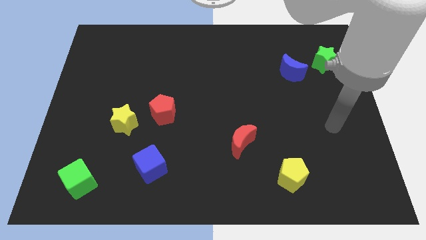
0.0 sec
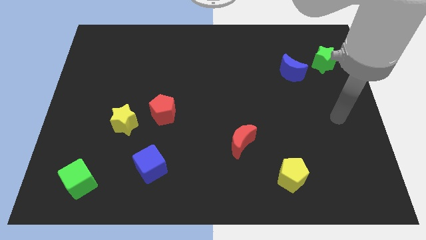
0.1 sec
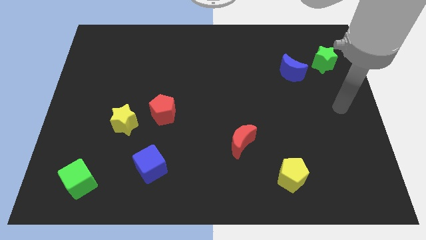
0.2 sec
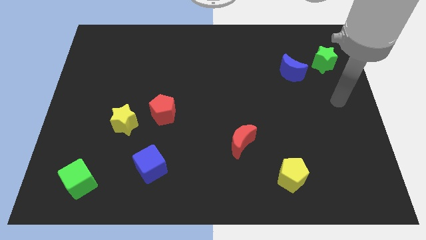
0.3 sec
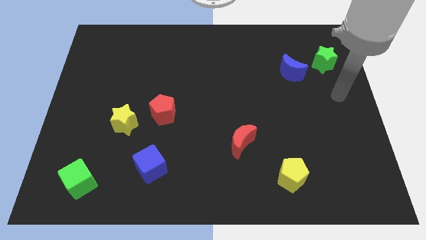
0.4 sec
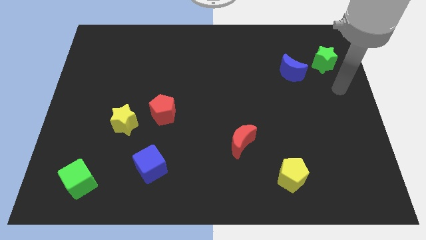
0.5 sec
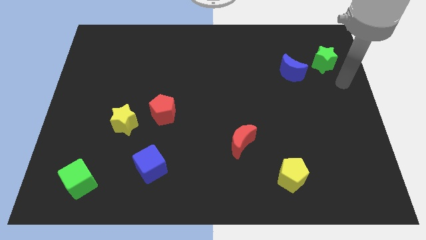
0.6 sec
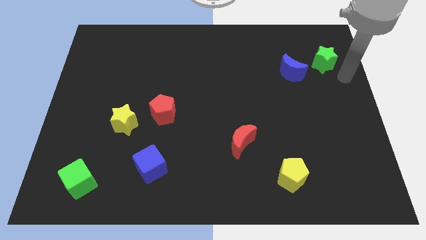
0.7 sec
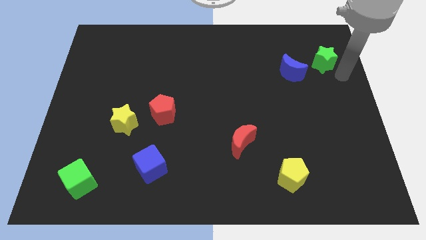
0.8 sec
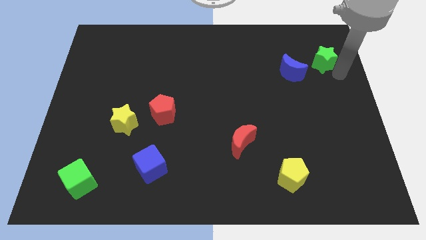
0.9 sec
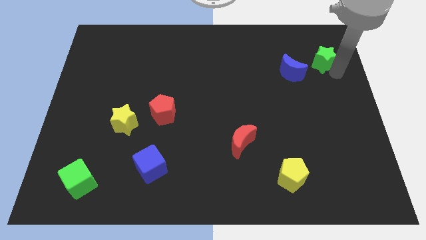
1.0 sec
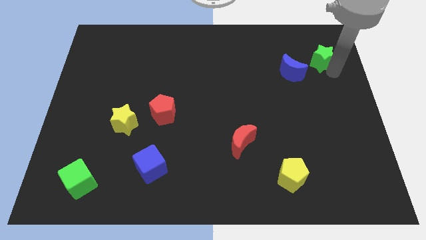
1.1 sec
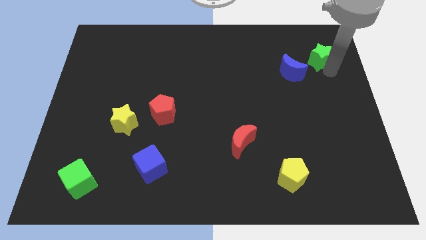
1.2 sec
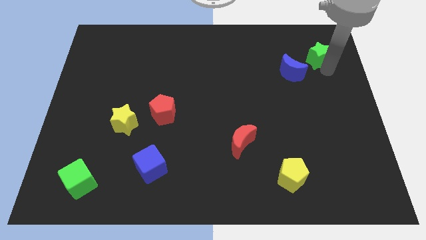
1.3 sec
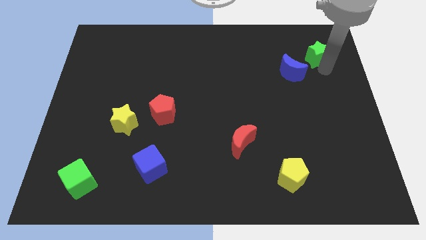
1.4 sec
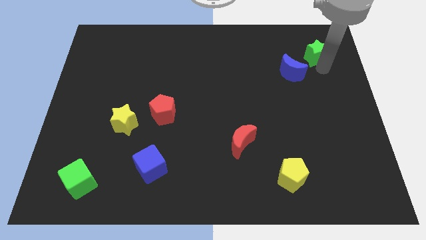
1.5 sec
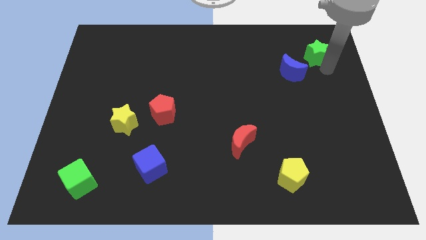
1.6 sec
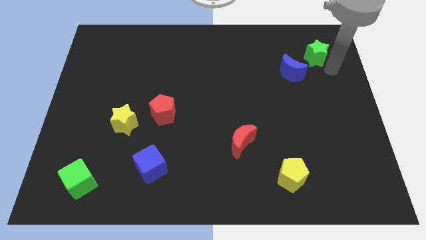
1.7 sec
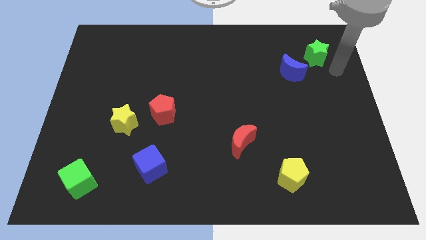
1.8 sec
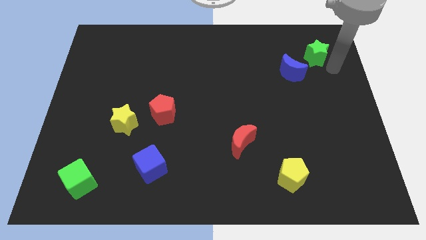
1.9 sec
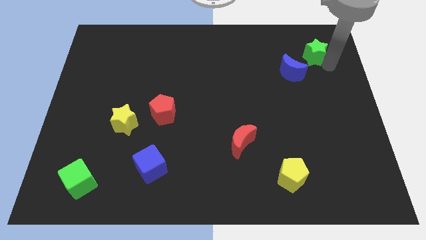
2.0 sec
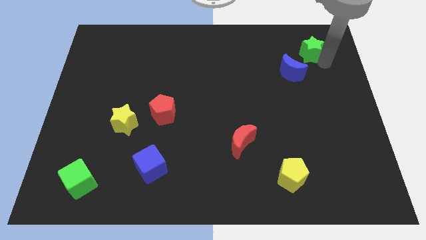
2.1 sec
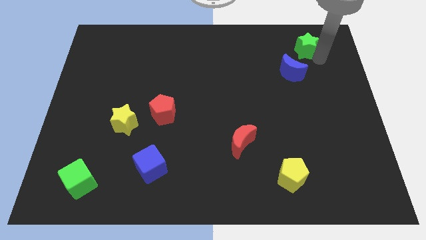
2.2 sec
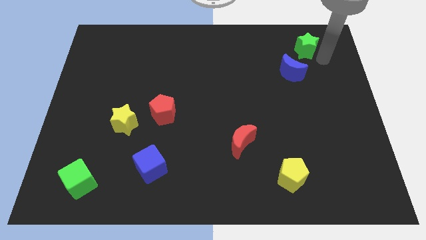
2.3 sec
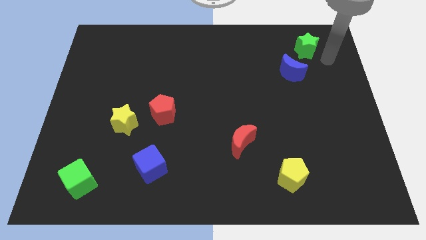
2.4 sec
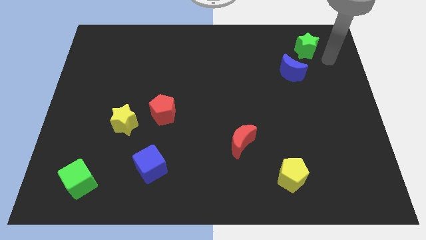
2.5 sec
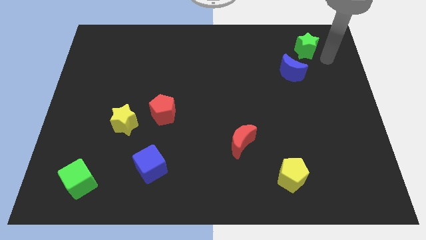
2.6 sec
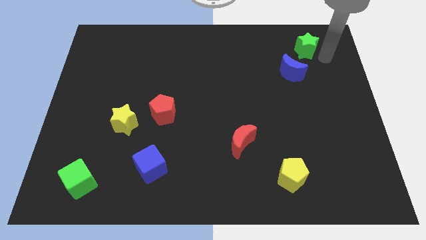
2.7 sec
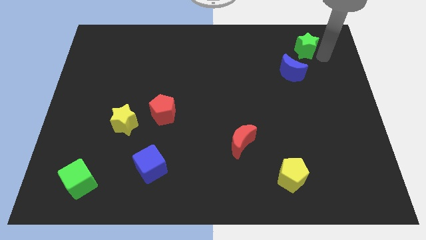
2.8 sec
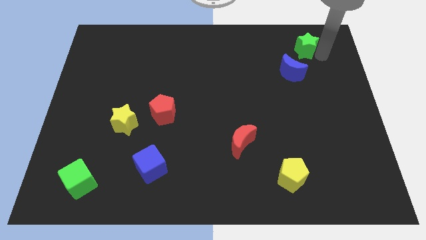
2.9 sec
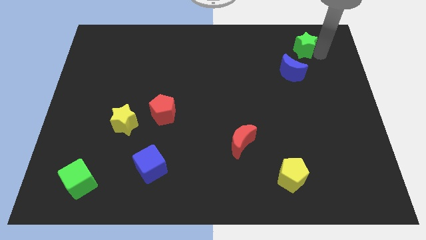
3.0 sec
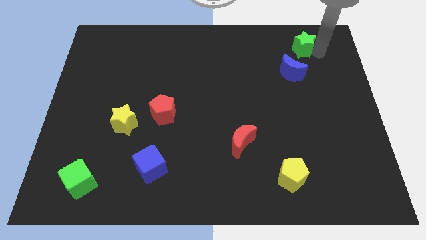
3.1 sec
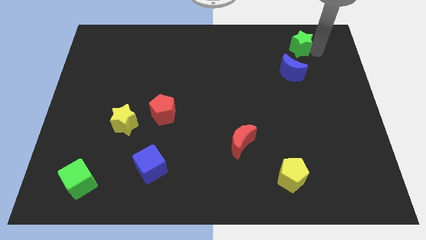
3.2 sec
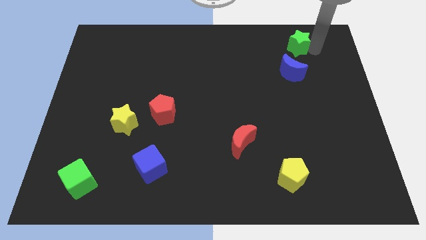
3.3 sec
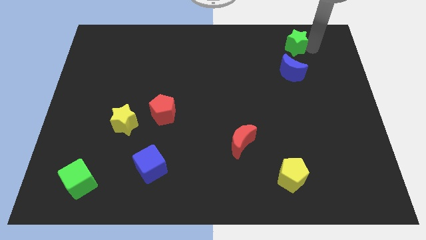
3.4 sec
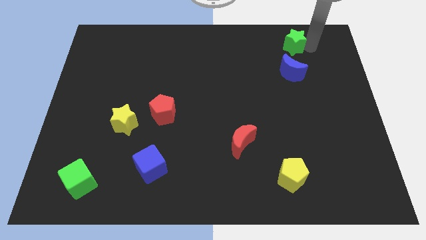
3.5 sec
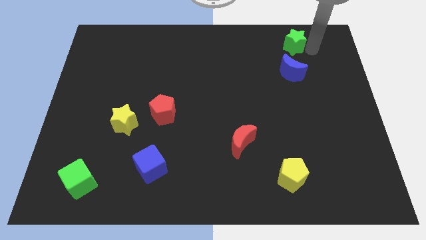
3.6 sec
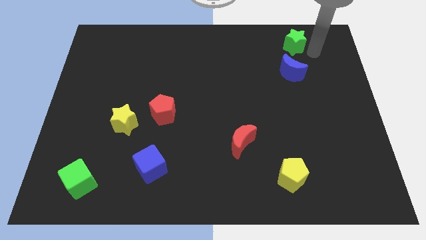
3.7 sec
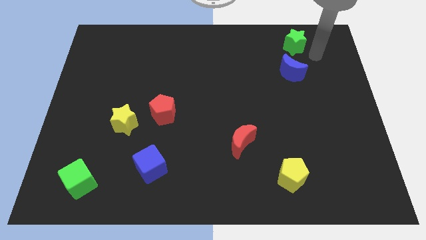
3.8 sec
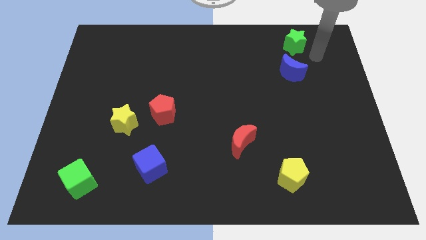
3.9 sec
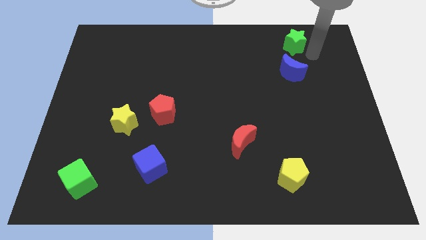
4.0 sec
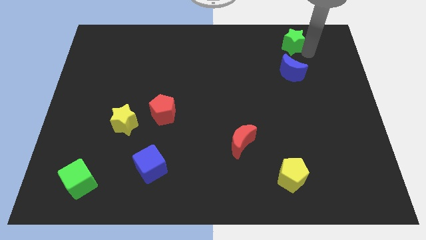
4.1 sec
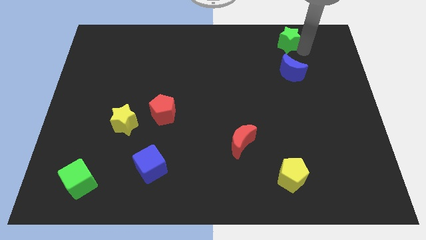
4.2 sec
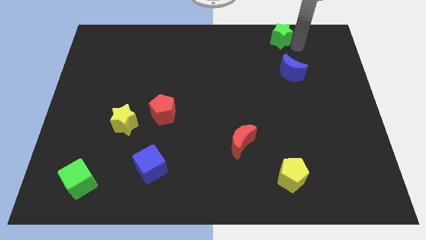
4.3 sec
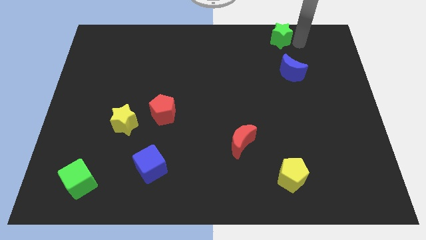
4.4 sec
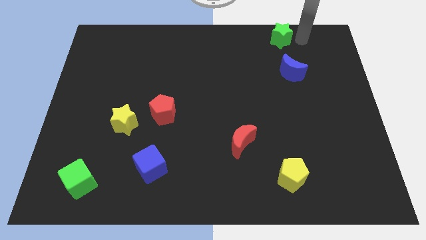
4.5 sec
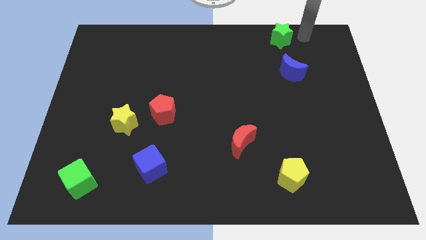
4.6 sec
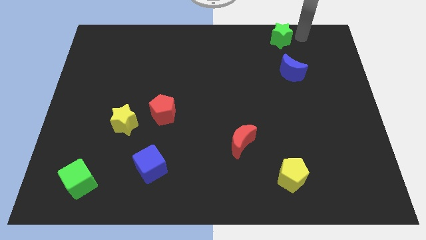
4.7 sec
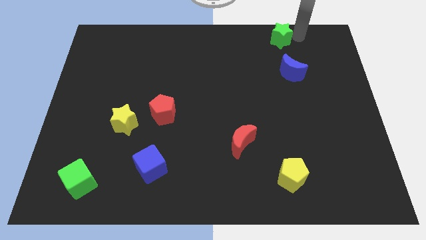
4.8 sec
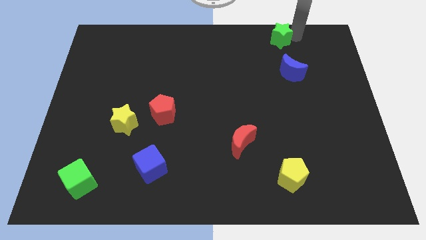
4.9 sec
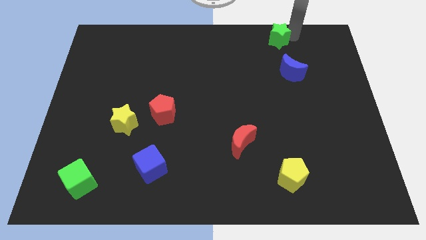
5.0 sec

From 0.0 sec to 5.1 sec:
move the green star a little bit left

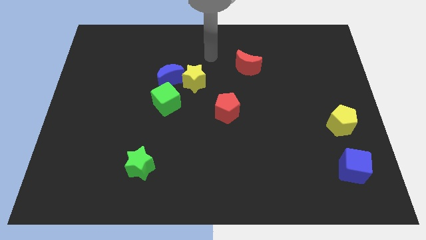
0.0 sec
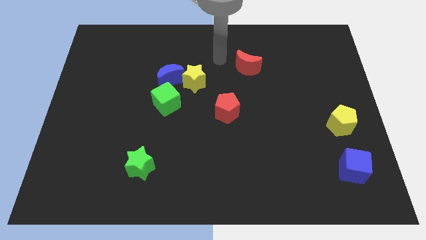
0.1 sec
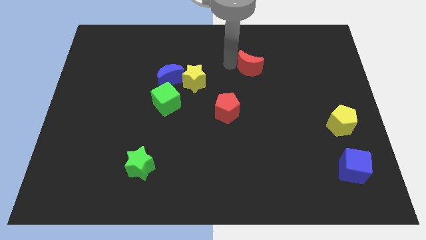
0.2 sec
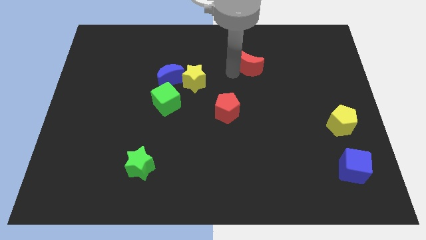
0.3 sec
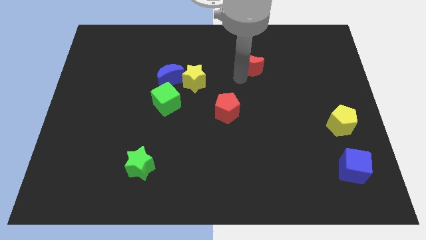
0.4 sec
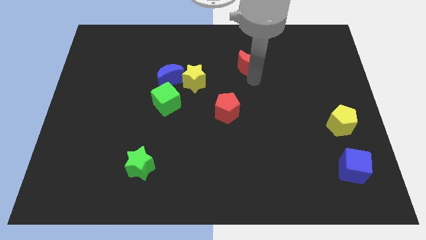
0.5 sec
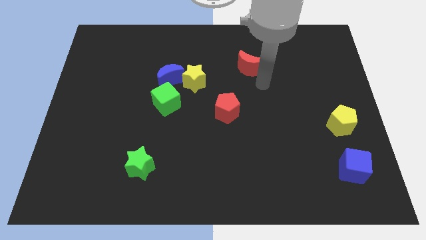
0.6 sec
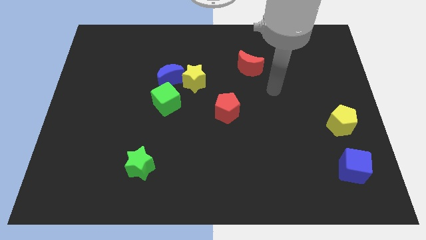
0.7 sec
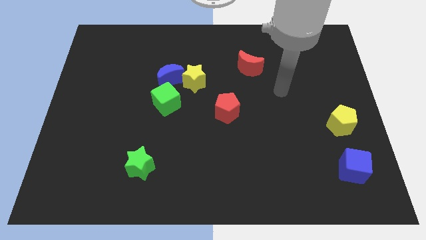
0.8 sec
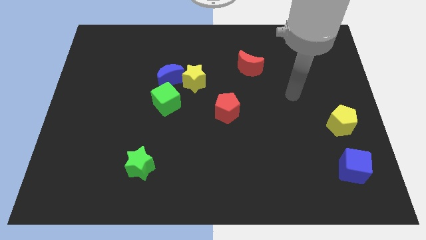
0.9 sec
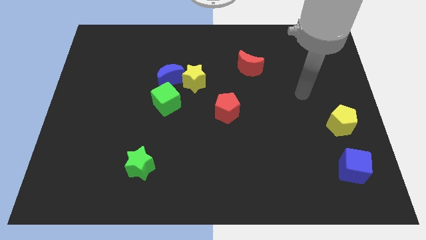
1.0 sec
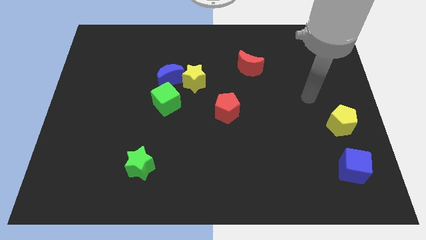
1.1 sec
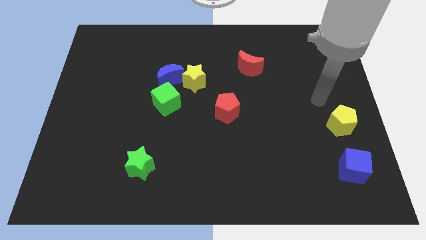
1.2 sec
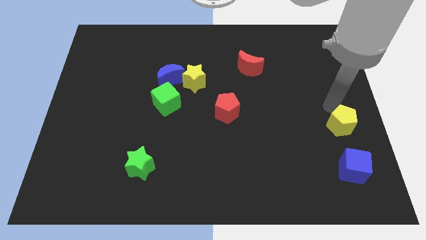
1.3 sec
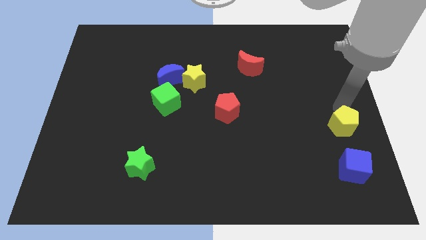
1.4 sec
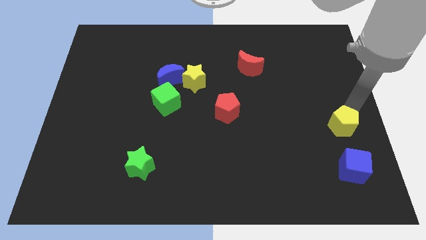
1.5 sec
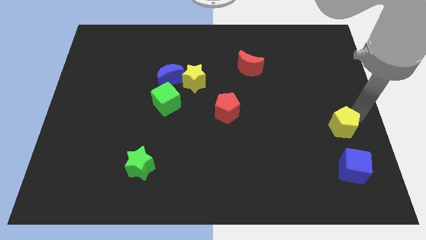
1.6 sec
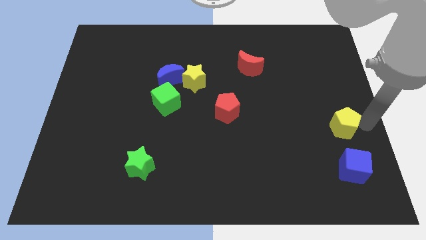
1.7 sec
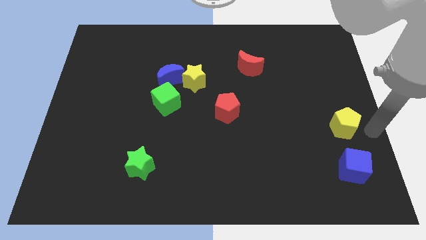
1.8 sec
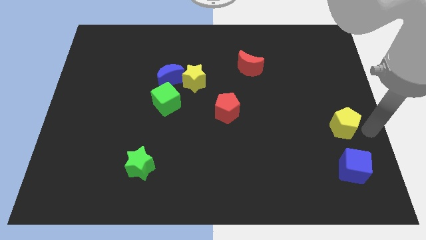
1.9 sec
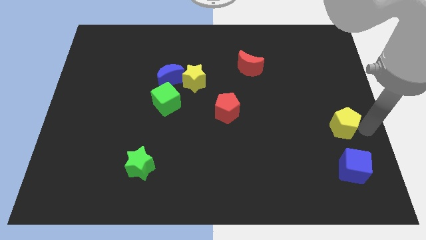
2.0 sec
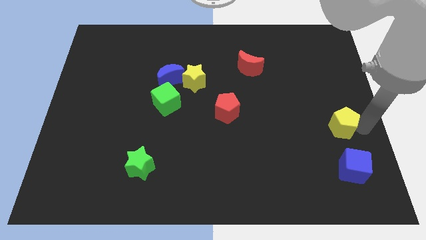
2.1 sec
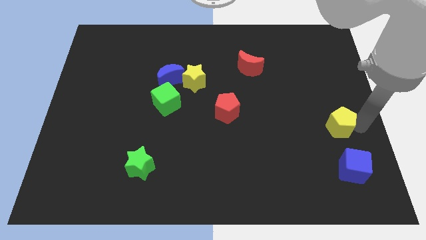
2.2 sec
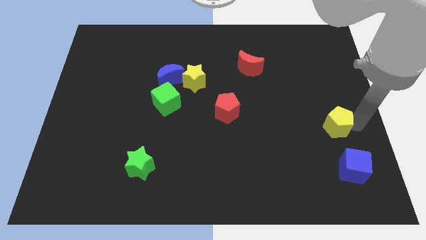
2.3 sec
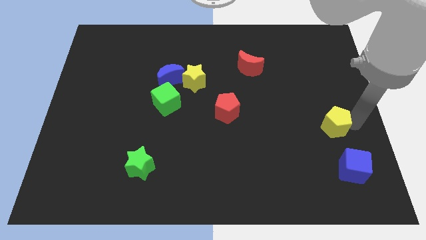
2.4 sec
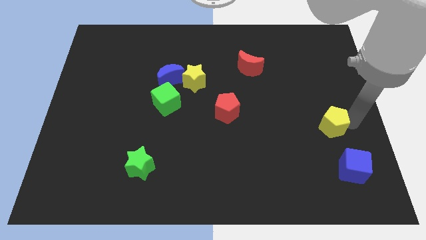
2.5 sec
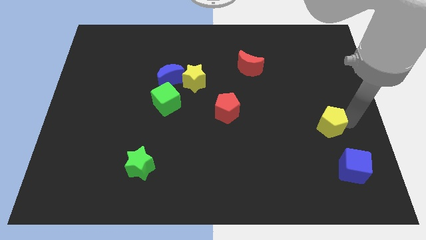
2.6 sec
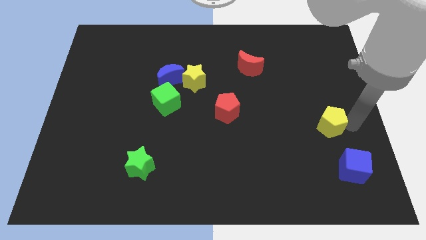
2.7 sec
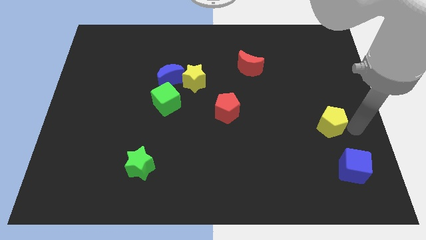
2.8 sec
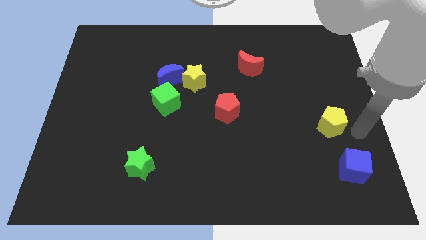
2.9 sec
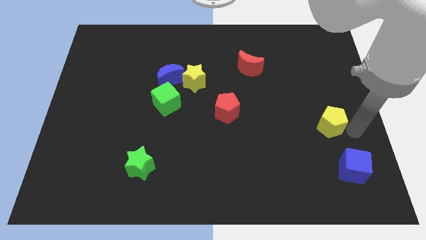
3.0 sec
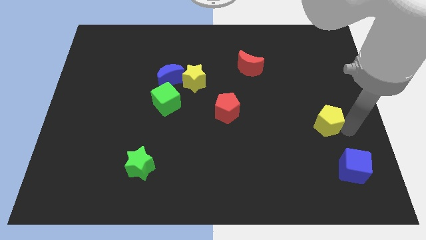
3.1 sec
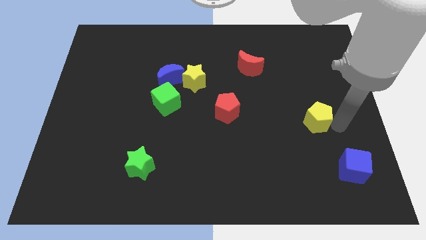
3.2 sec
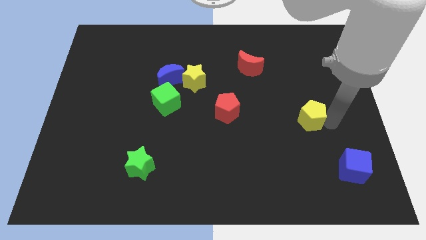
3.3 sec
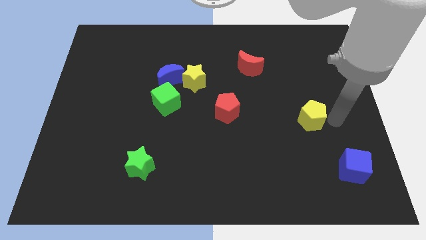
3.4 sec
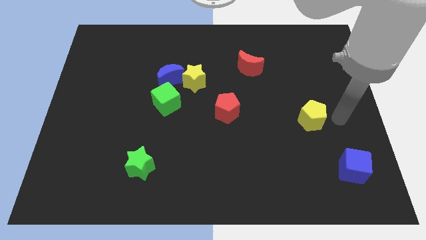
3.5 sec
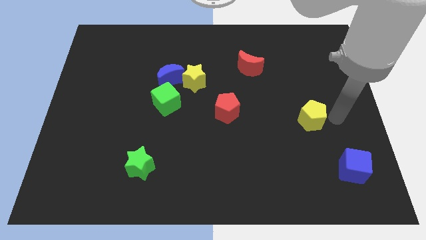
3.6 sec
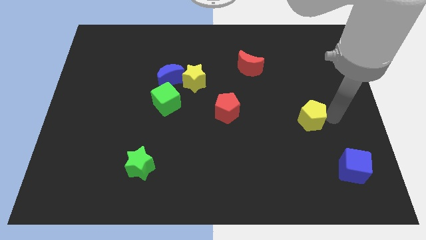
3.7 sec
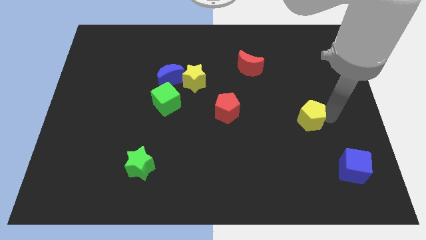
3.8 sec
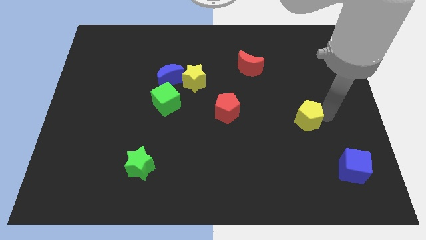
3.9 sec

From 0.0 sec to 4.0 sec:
move the yellow pentagon to the left slightly
